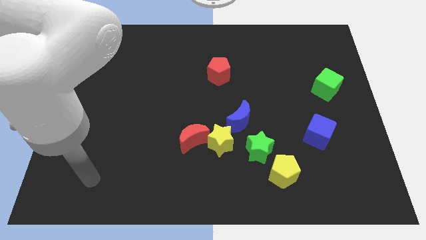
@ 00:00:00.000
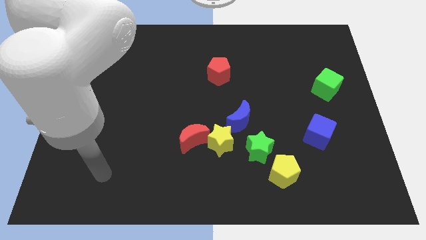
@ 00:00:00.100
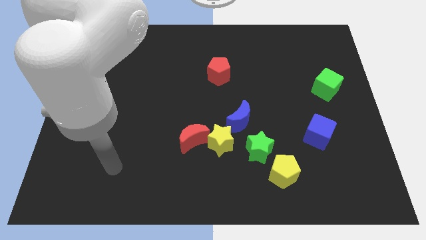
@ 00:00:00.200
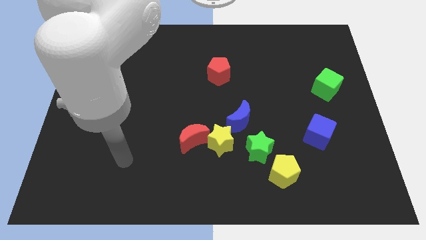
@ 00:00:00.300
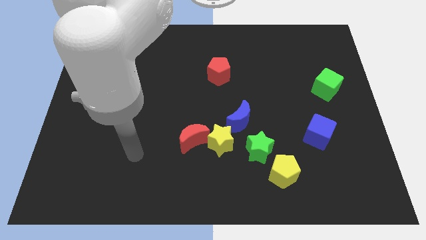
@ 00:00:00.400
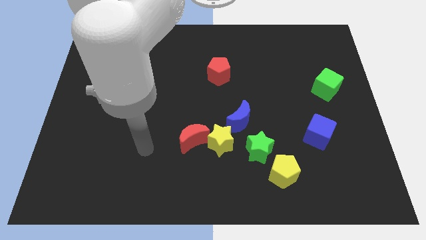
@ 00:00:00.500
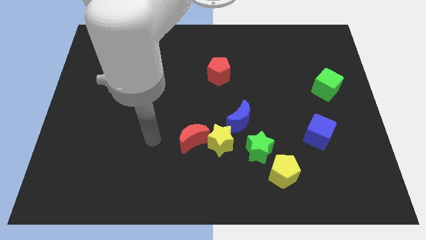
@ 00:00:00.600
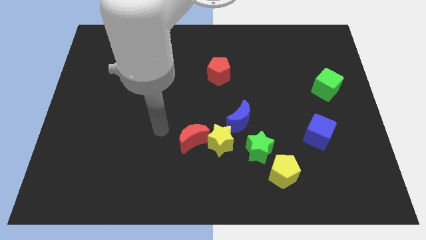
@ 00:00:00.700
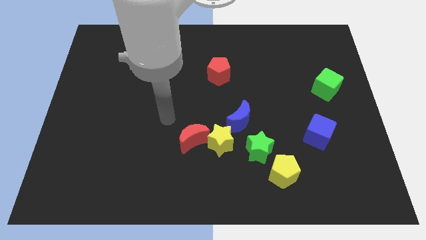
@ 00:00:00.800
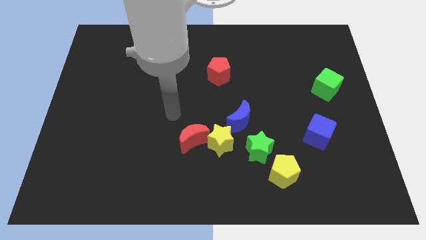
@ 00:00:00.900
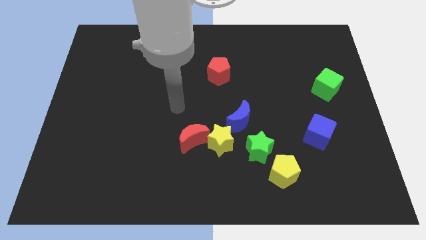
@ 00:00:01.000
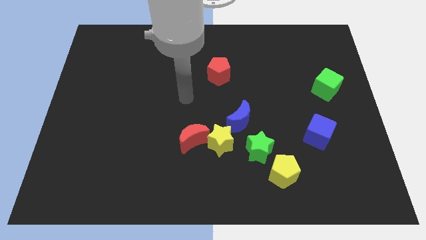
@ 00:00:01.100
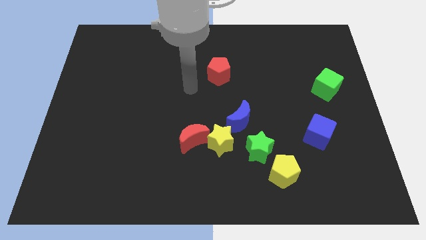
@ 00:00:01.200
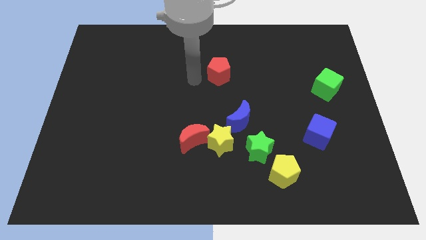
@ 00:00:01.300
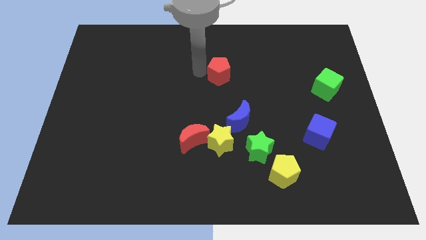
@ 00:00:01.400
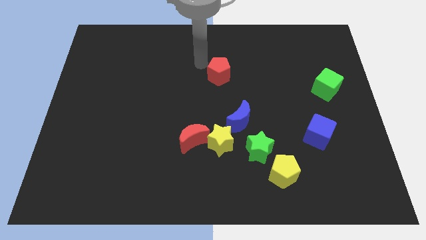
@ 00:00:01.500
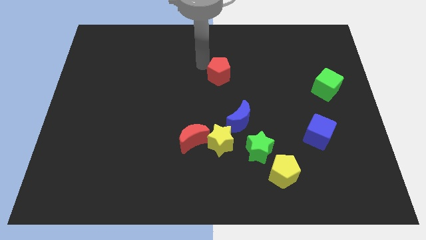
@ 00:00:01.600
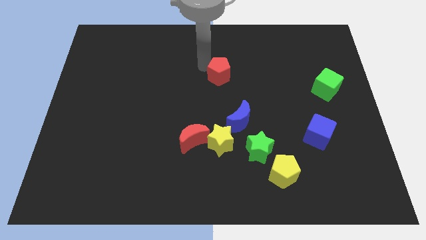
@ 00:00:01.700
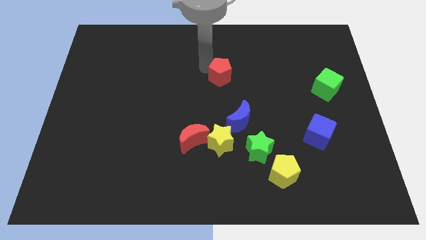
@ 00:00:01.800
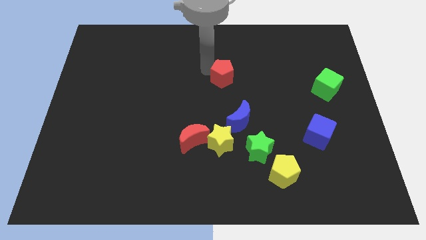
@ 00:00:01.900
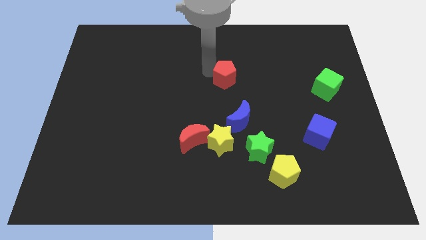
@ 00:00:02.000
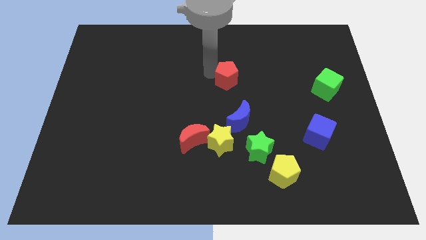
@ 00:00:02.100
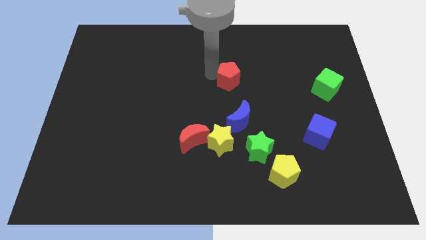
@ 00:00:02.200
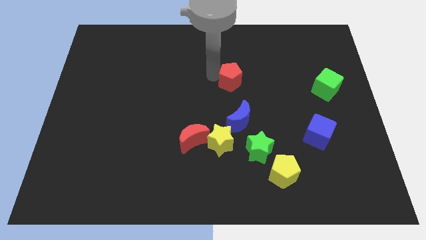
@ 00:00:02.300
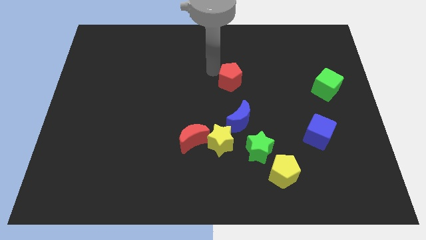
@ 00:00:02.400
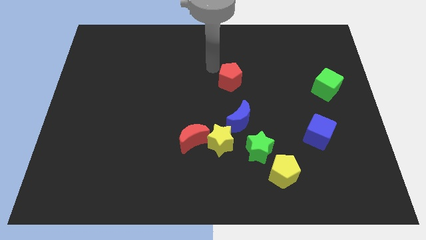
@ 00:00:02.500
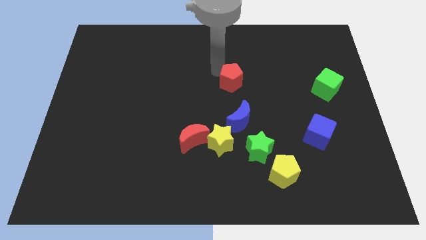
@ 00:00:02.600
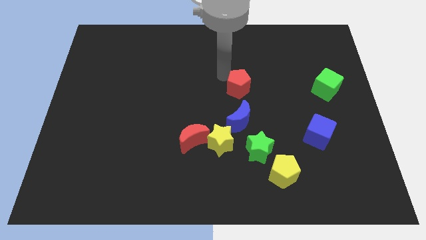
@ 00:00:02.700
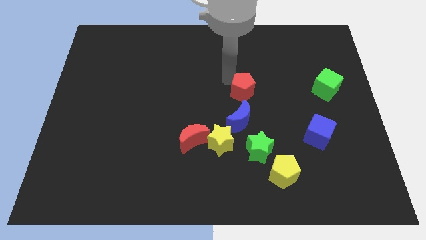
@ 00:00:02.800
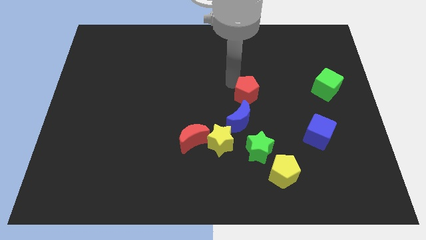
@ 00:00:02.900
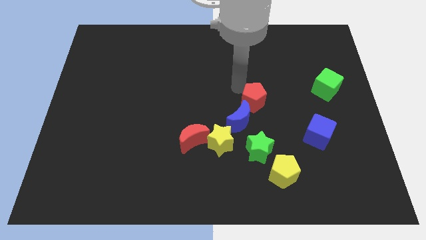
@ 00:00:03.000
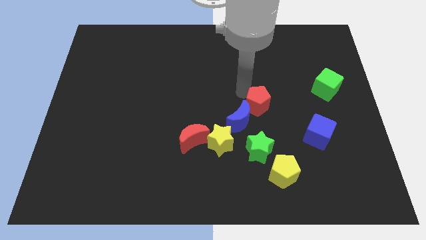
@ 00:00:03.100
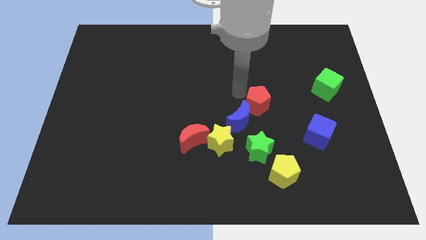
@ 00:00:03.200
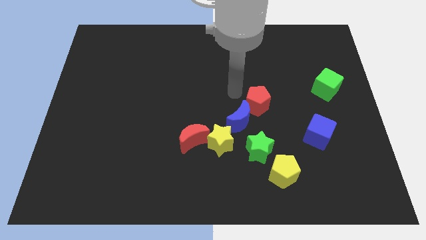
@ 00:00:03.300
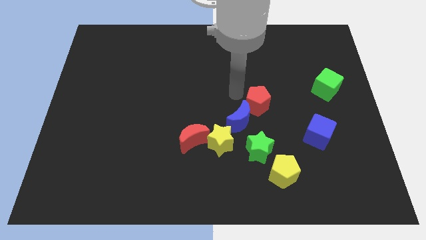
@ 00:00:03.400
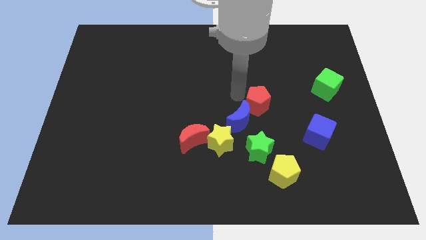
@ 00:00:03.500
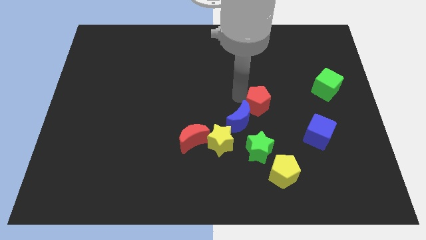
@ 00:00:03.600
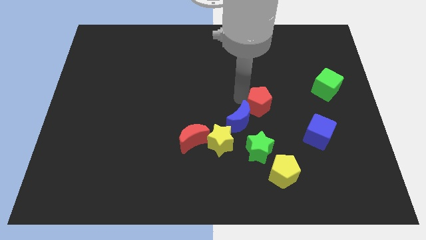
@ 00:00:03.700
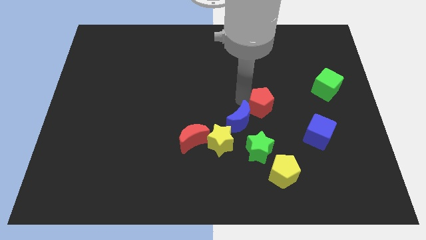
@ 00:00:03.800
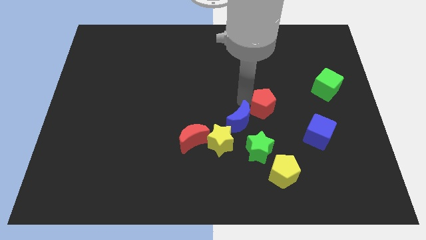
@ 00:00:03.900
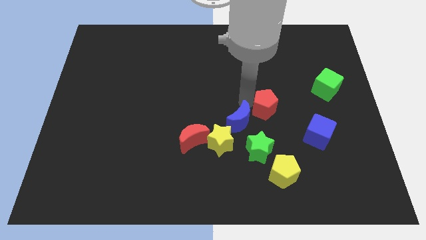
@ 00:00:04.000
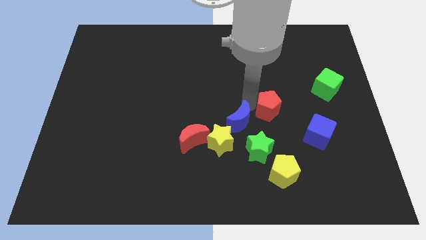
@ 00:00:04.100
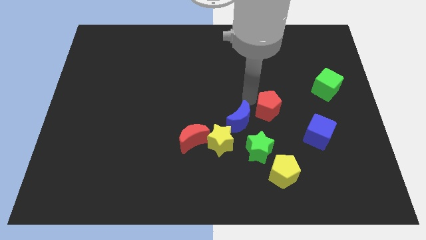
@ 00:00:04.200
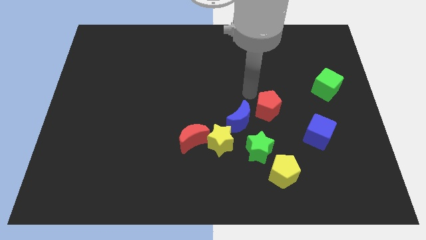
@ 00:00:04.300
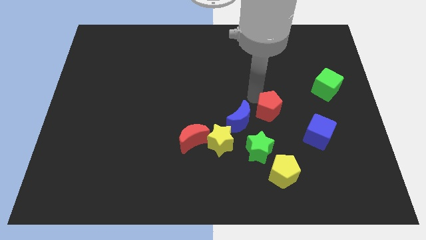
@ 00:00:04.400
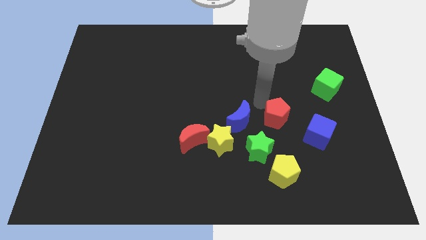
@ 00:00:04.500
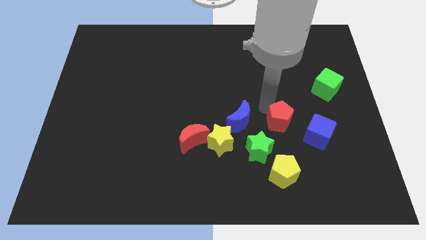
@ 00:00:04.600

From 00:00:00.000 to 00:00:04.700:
move the red pentagon downwards and to the right

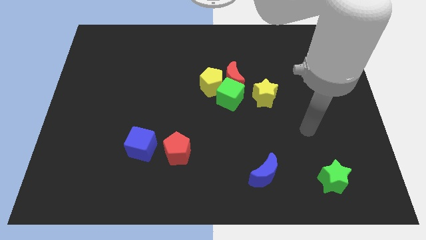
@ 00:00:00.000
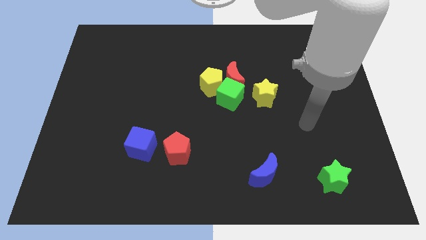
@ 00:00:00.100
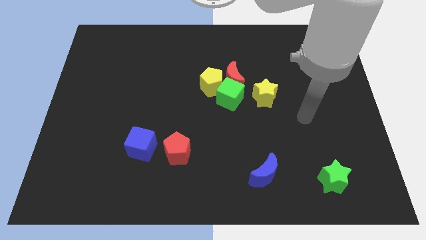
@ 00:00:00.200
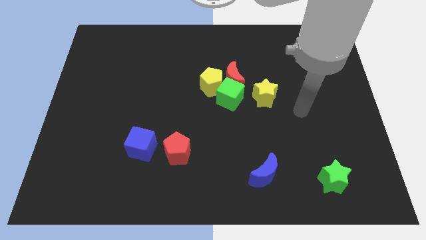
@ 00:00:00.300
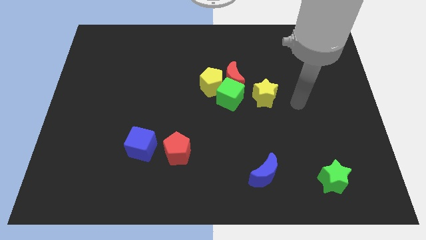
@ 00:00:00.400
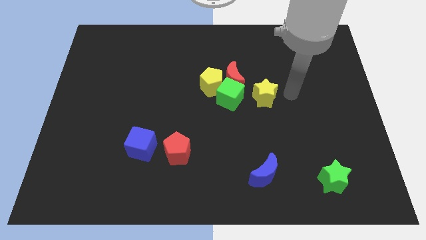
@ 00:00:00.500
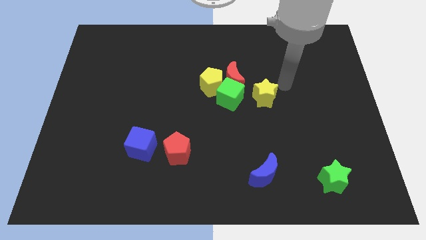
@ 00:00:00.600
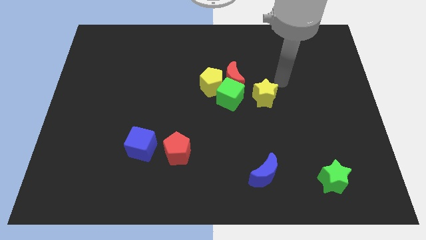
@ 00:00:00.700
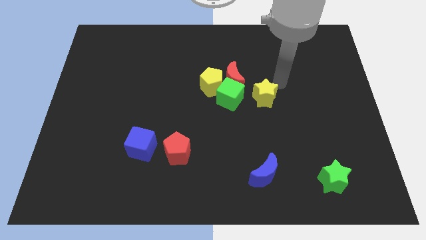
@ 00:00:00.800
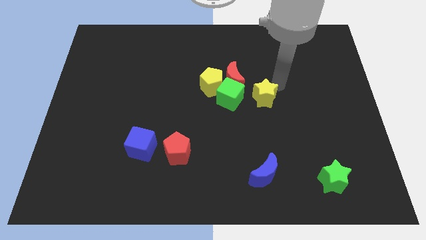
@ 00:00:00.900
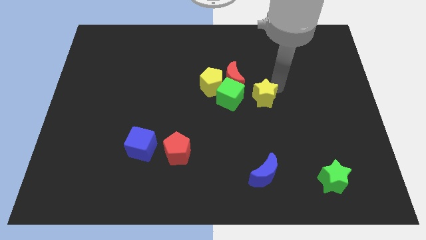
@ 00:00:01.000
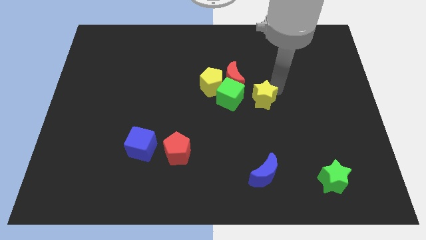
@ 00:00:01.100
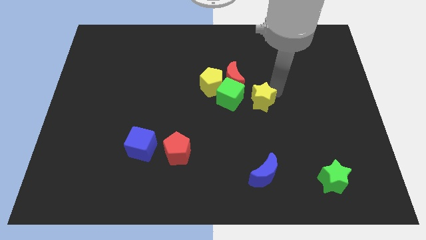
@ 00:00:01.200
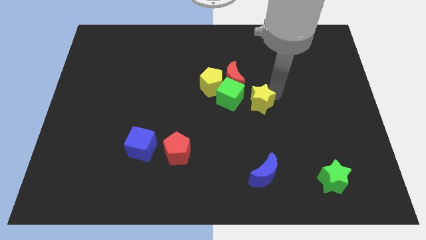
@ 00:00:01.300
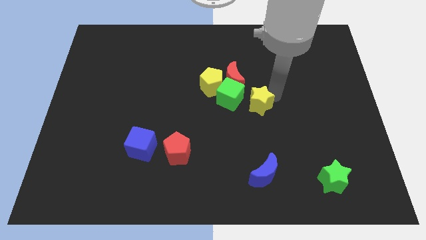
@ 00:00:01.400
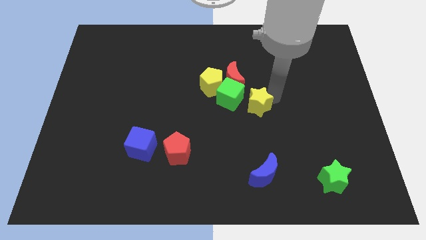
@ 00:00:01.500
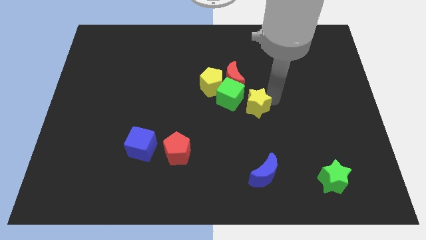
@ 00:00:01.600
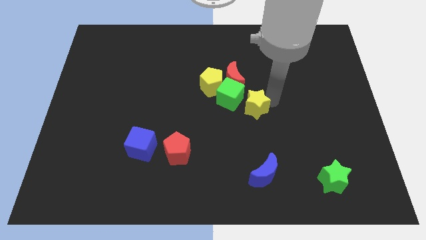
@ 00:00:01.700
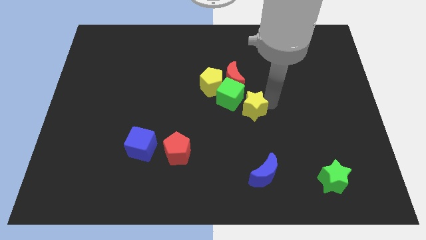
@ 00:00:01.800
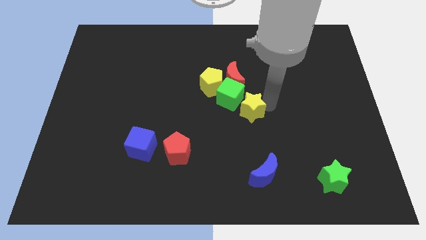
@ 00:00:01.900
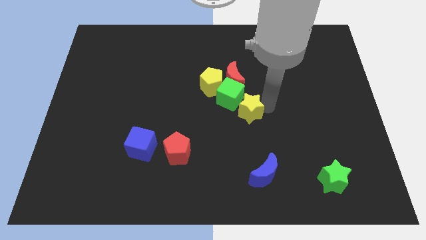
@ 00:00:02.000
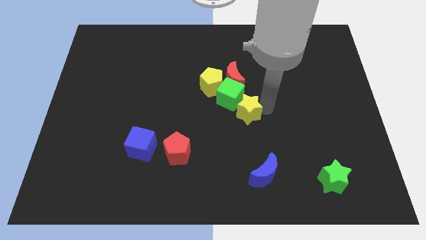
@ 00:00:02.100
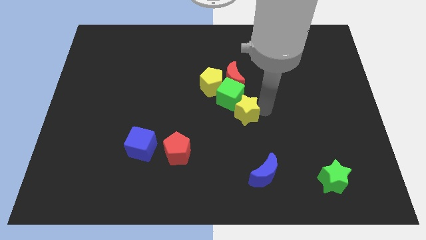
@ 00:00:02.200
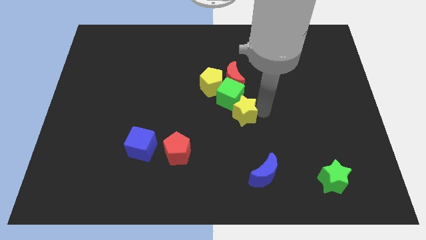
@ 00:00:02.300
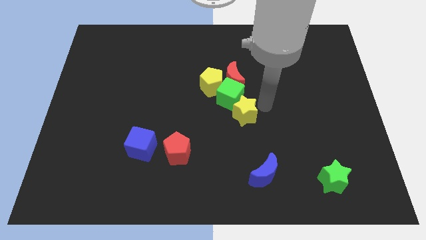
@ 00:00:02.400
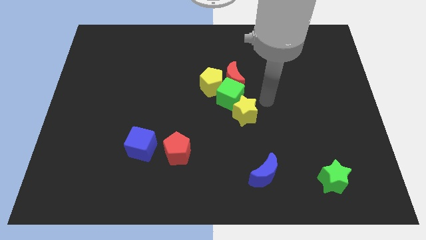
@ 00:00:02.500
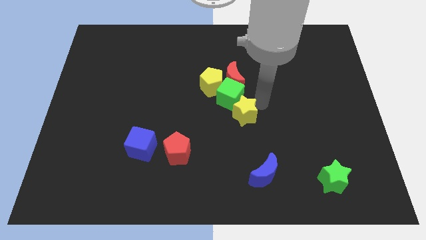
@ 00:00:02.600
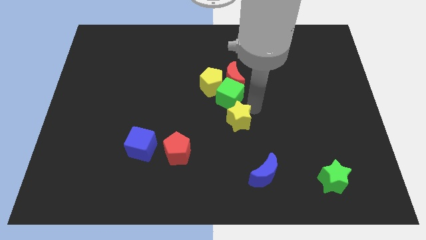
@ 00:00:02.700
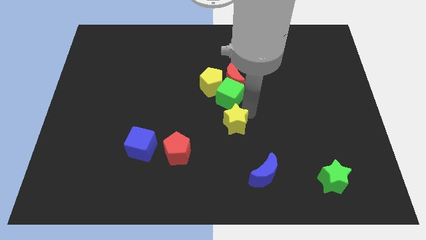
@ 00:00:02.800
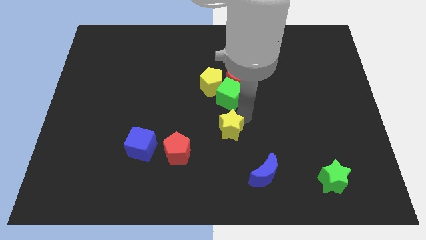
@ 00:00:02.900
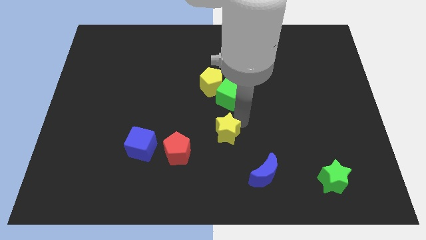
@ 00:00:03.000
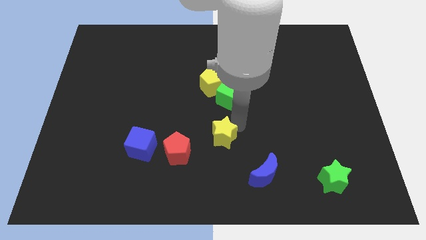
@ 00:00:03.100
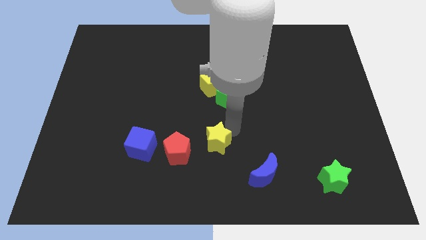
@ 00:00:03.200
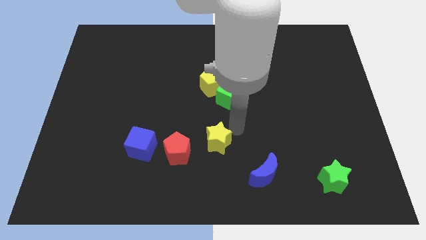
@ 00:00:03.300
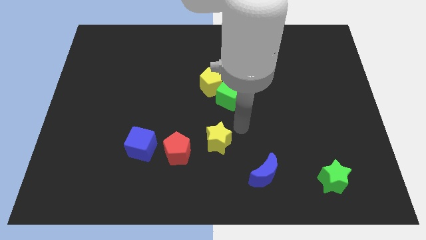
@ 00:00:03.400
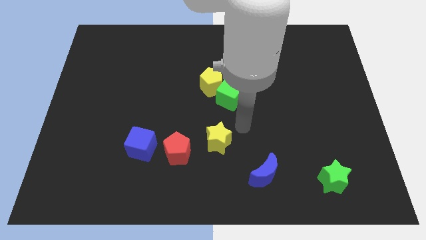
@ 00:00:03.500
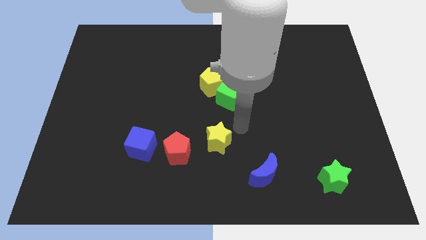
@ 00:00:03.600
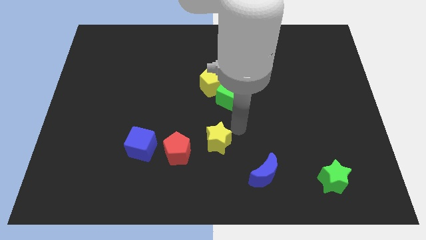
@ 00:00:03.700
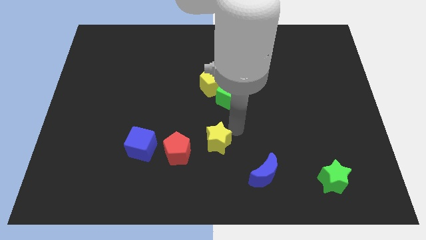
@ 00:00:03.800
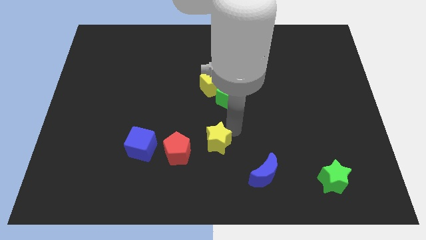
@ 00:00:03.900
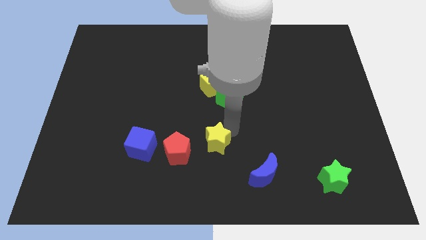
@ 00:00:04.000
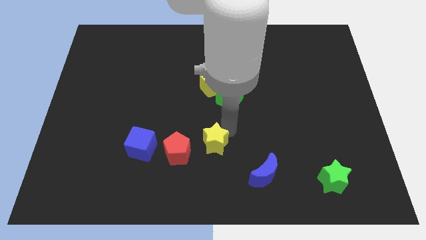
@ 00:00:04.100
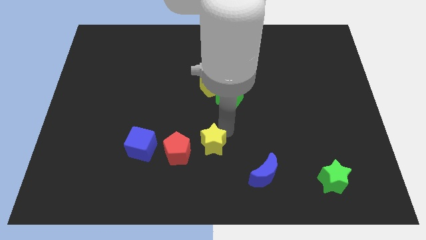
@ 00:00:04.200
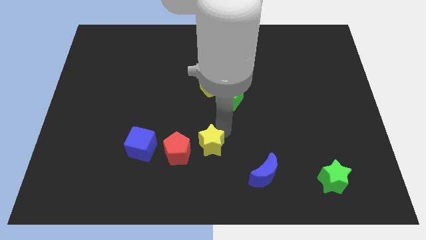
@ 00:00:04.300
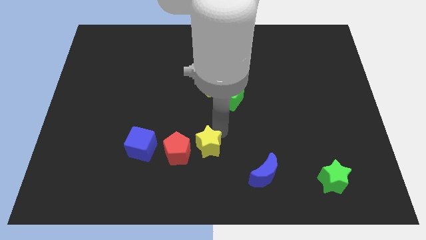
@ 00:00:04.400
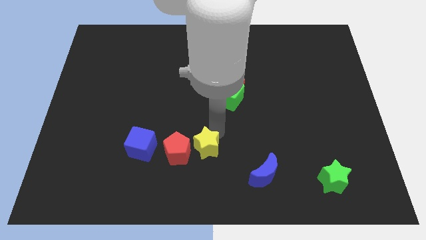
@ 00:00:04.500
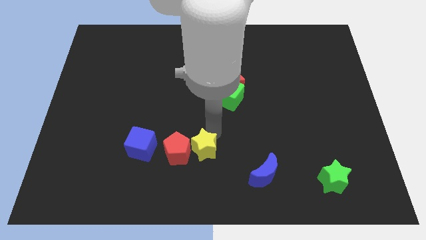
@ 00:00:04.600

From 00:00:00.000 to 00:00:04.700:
push the yellow star down and then left
